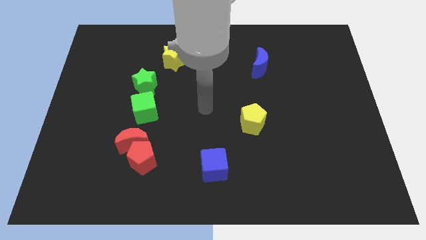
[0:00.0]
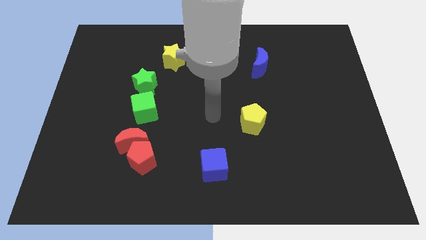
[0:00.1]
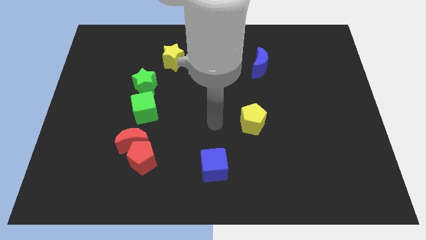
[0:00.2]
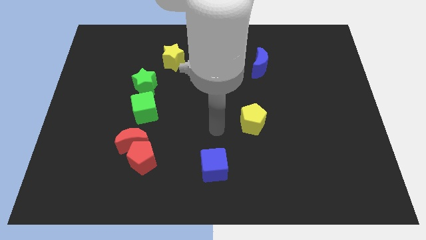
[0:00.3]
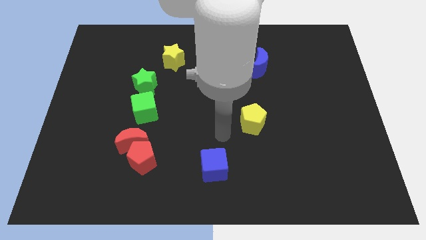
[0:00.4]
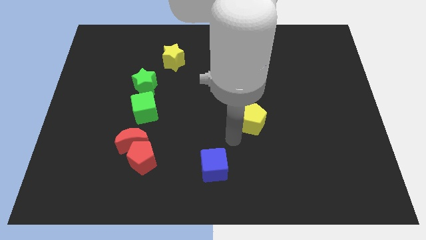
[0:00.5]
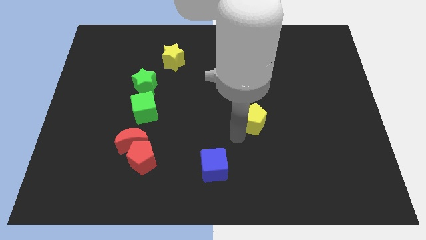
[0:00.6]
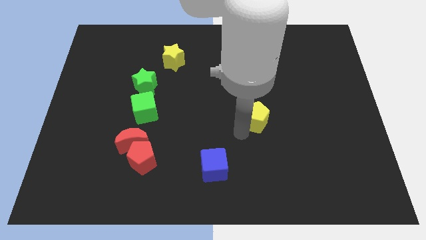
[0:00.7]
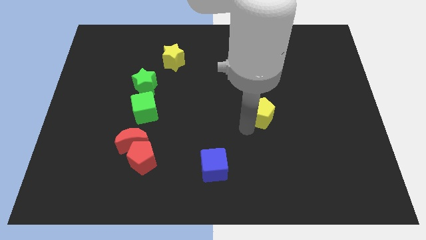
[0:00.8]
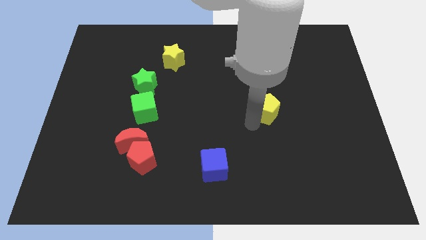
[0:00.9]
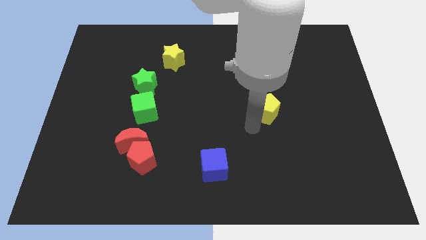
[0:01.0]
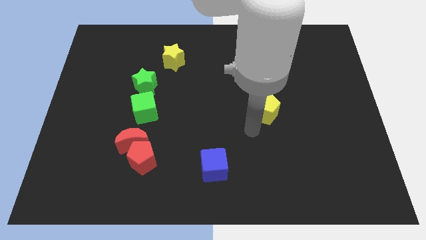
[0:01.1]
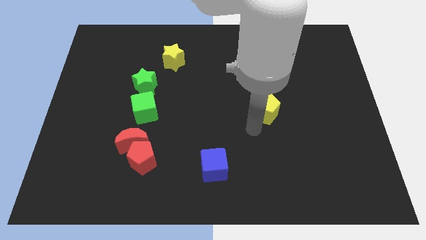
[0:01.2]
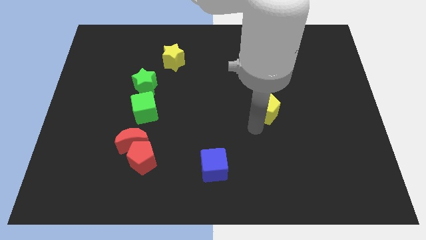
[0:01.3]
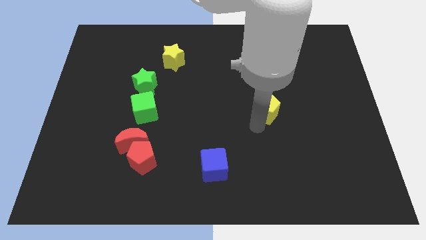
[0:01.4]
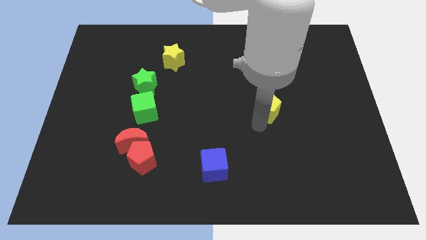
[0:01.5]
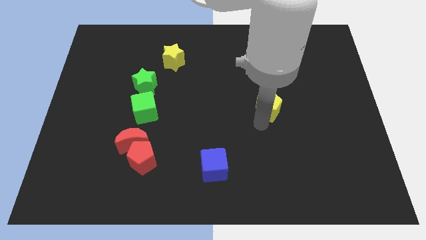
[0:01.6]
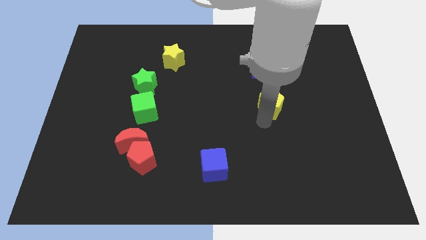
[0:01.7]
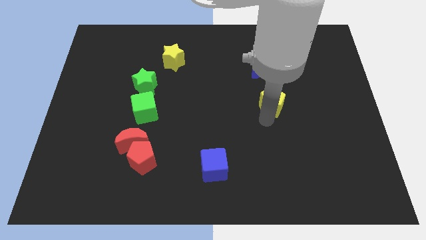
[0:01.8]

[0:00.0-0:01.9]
move the yellow pentagon up and to the right a little bit

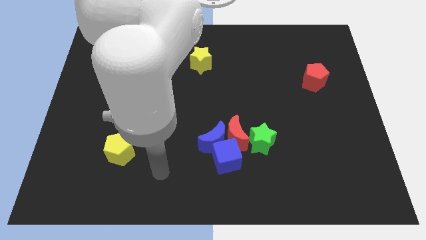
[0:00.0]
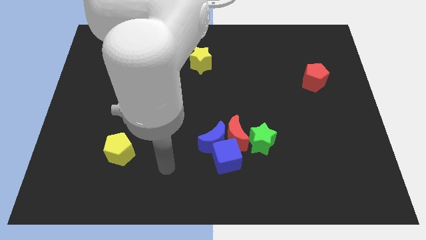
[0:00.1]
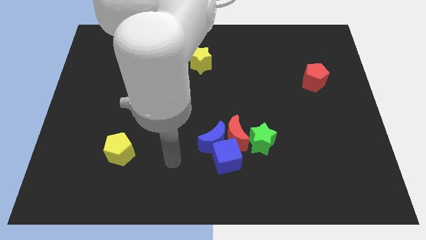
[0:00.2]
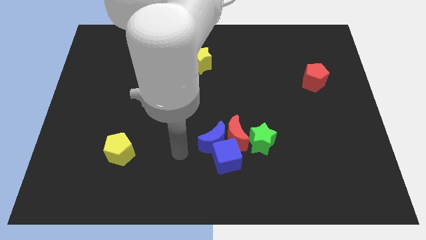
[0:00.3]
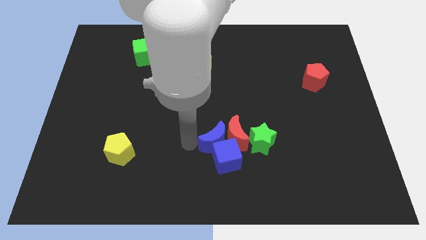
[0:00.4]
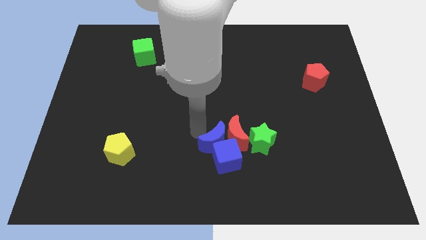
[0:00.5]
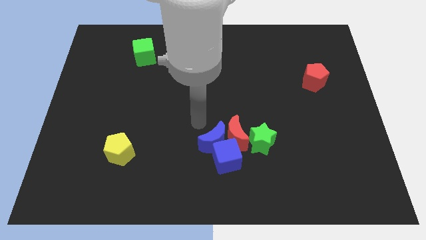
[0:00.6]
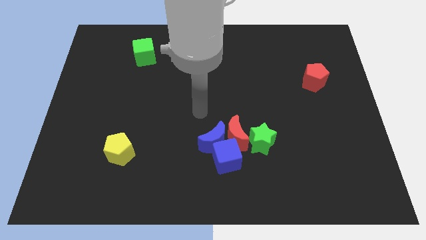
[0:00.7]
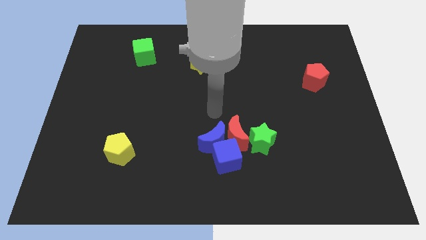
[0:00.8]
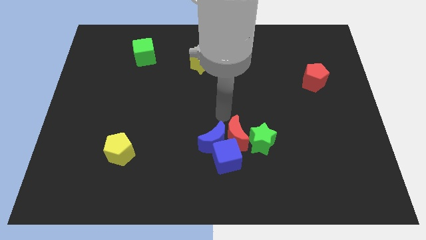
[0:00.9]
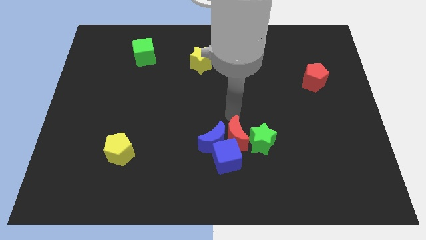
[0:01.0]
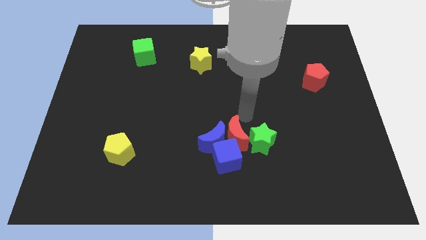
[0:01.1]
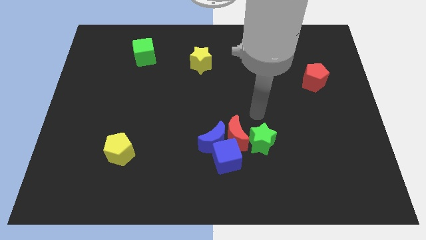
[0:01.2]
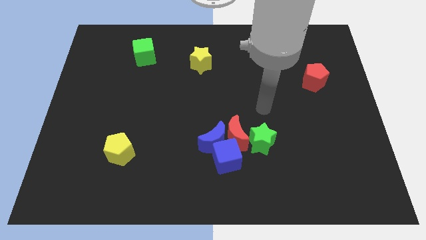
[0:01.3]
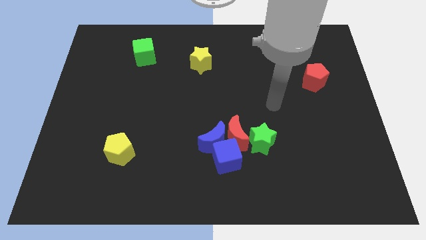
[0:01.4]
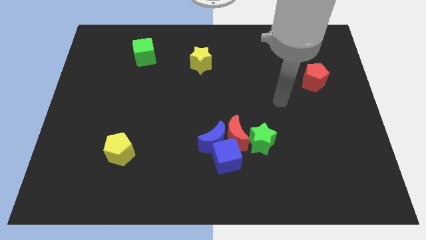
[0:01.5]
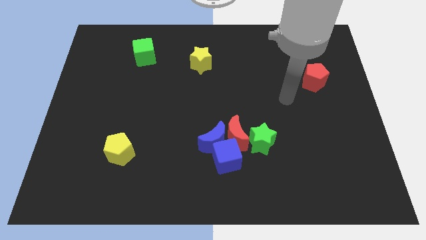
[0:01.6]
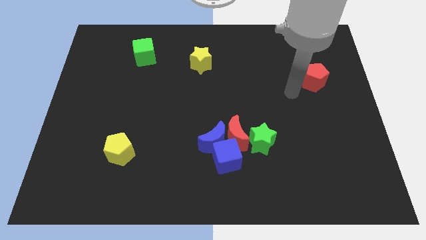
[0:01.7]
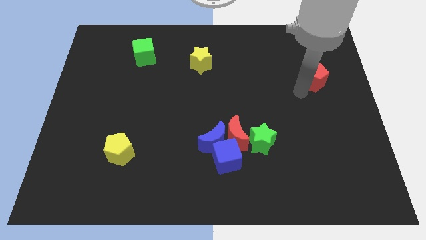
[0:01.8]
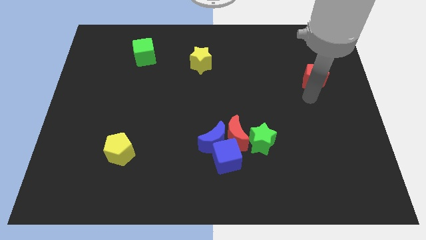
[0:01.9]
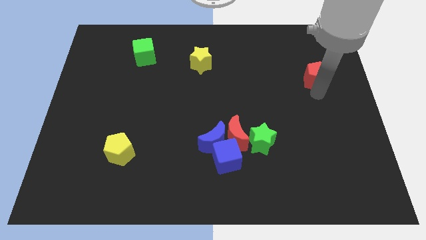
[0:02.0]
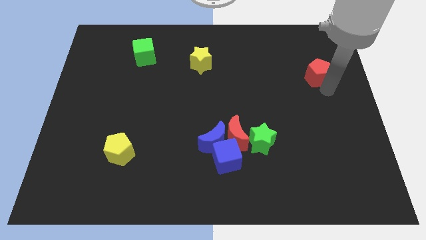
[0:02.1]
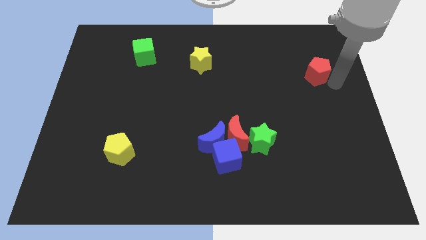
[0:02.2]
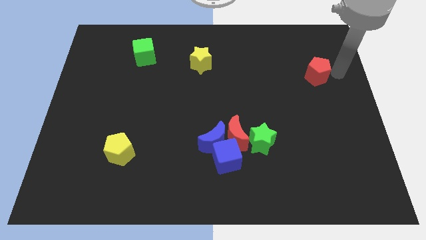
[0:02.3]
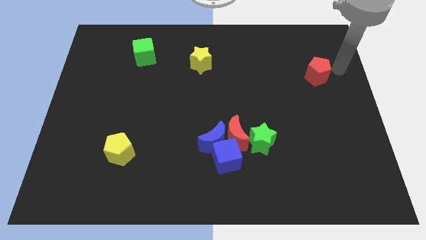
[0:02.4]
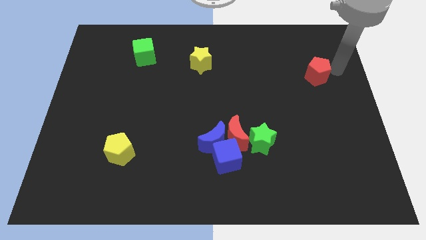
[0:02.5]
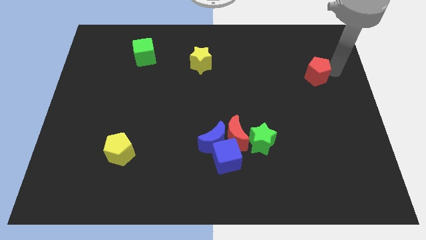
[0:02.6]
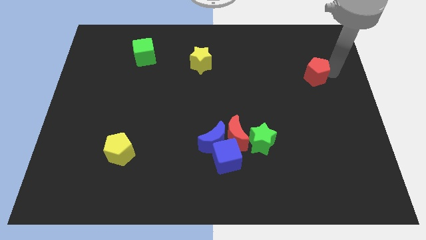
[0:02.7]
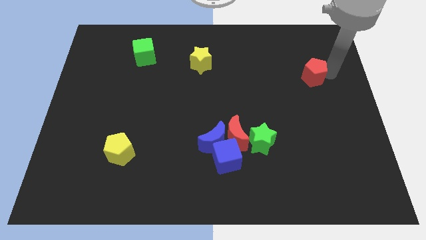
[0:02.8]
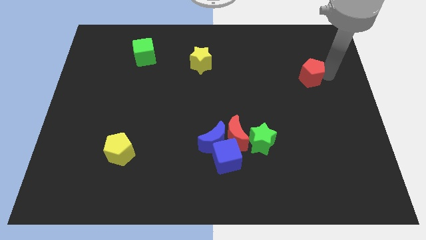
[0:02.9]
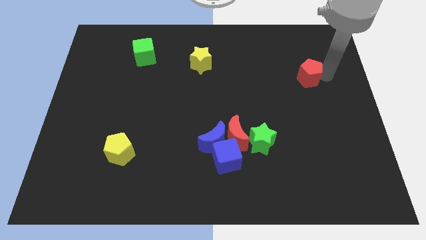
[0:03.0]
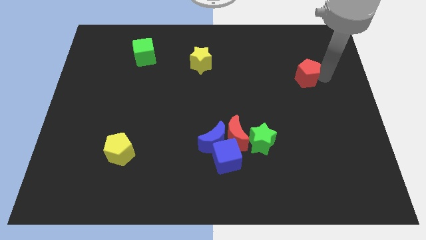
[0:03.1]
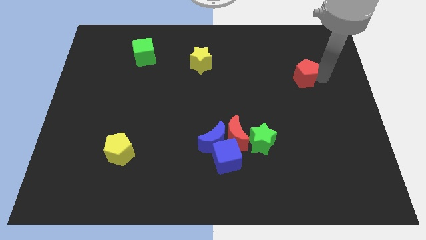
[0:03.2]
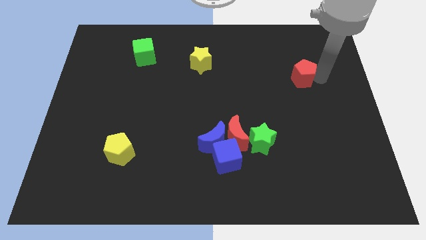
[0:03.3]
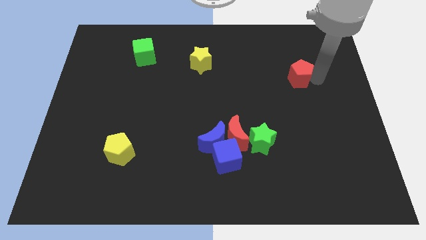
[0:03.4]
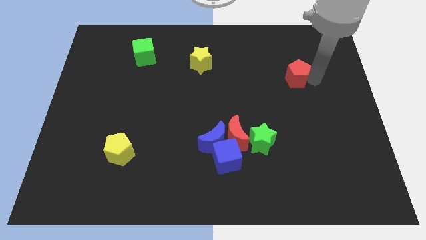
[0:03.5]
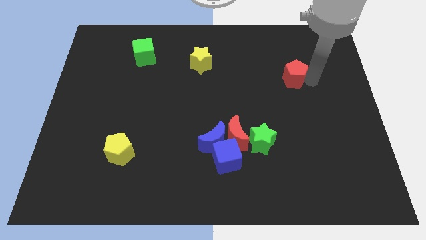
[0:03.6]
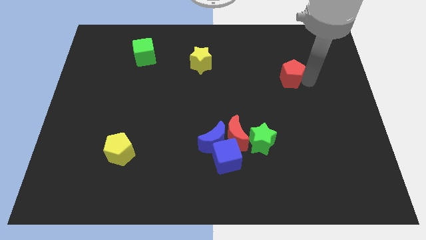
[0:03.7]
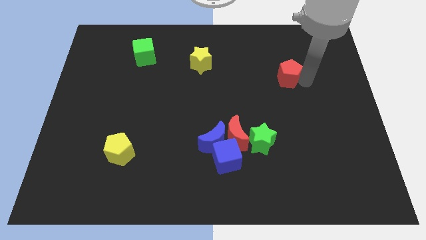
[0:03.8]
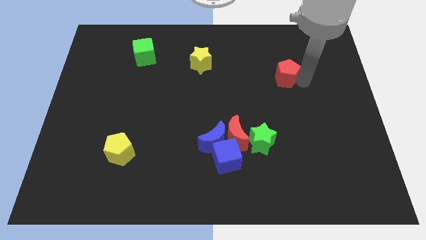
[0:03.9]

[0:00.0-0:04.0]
slightly push the red pentagon to the left

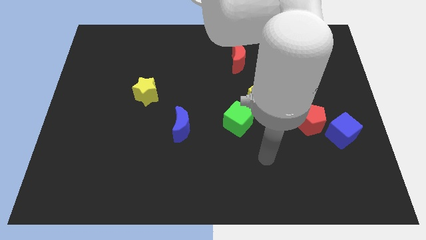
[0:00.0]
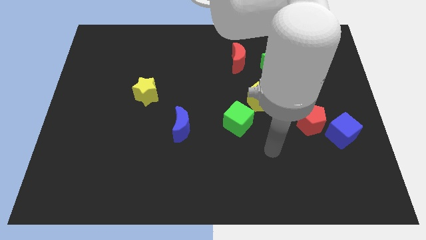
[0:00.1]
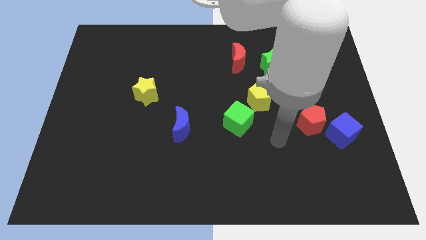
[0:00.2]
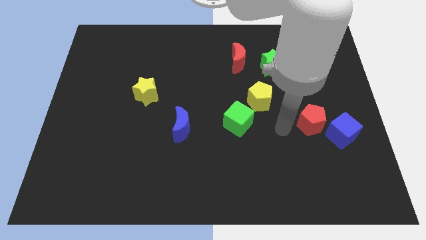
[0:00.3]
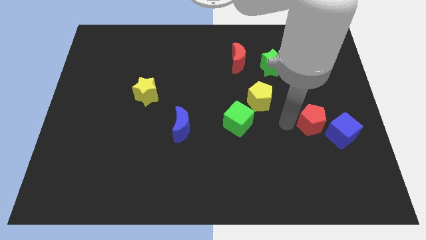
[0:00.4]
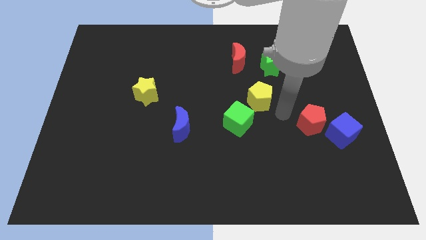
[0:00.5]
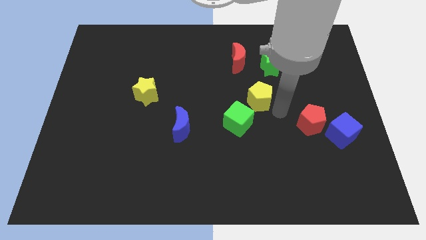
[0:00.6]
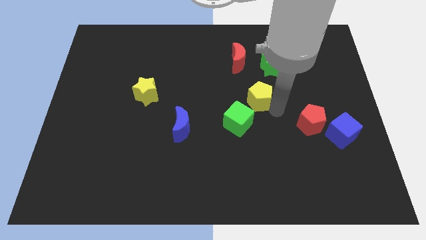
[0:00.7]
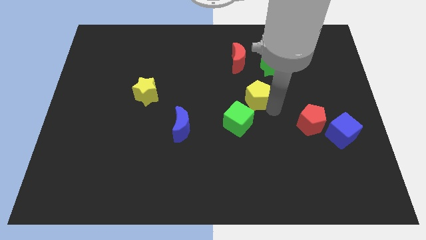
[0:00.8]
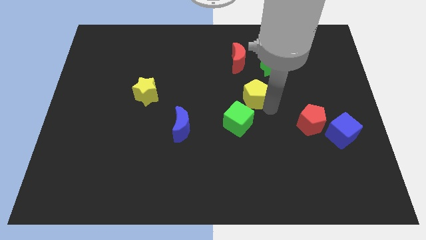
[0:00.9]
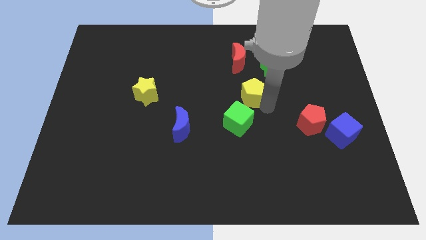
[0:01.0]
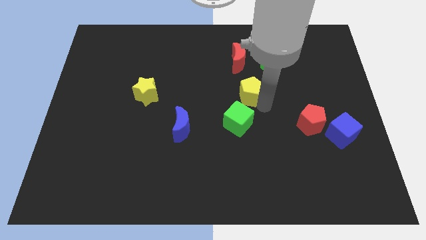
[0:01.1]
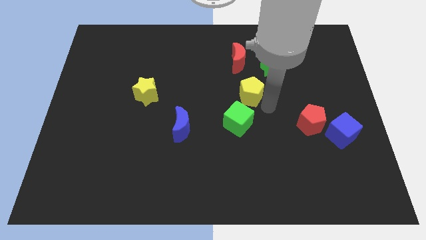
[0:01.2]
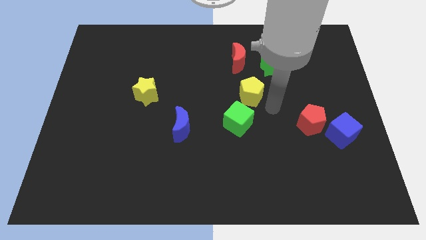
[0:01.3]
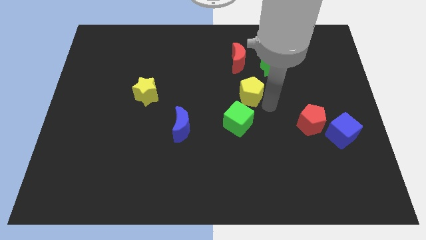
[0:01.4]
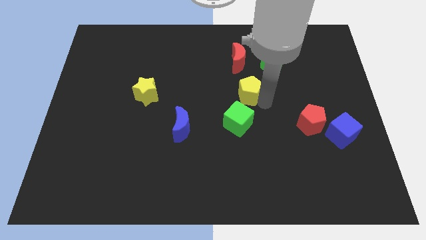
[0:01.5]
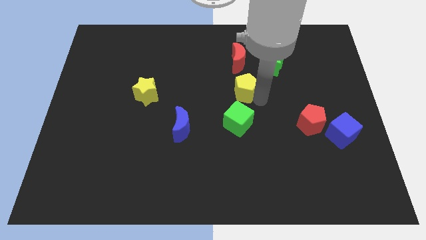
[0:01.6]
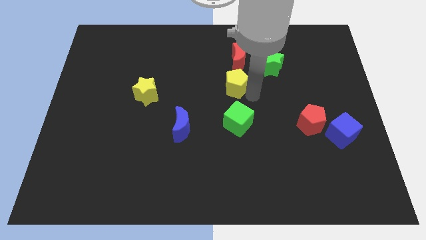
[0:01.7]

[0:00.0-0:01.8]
slightly slide the yellow pentagon upwards and to the left diagonally

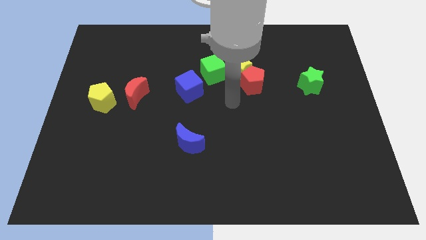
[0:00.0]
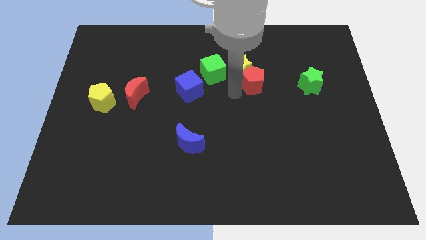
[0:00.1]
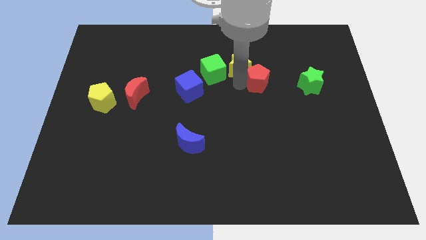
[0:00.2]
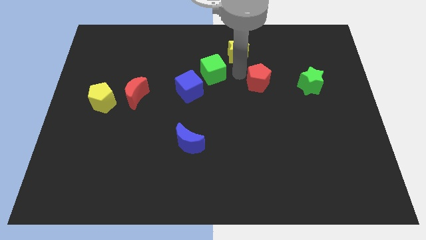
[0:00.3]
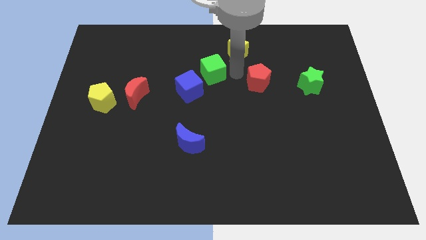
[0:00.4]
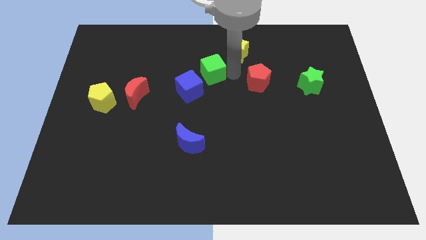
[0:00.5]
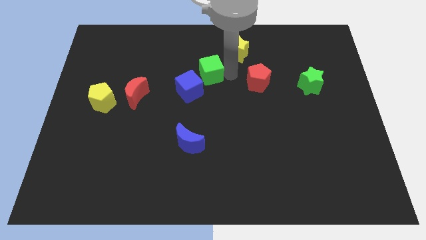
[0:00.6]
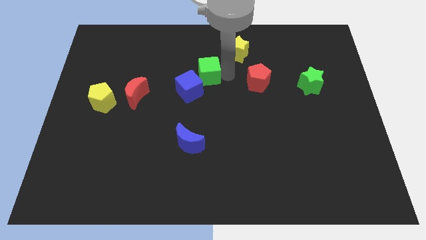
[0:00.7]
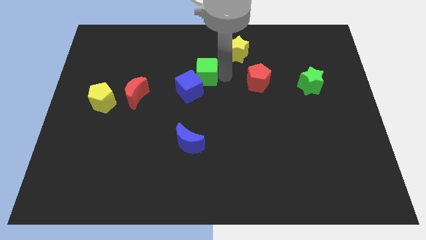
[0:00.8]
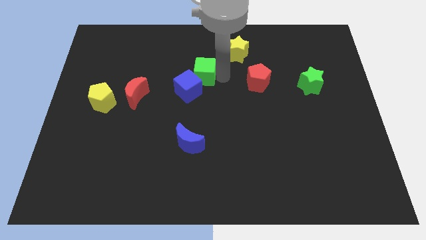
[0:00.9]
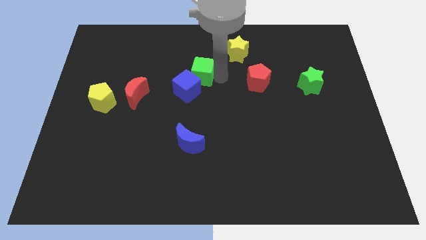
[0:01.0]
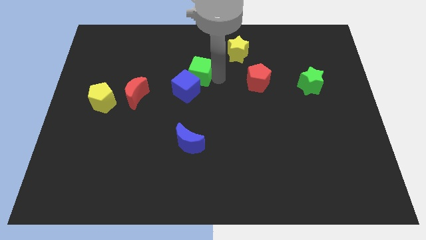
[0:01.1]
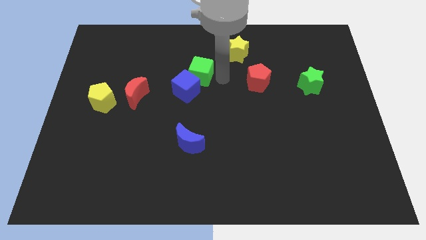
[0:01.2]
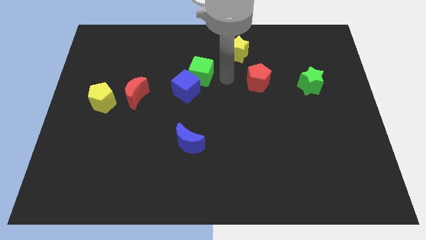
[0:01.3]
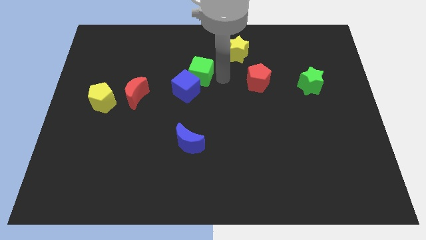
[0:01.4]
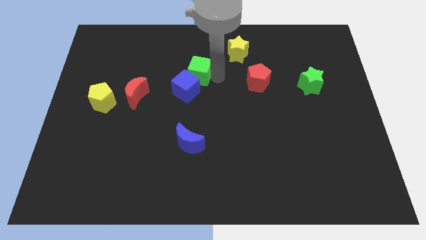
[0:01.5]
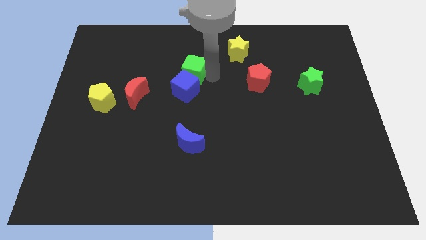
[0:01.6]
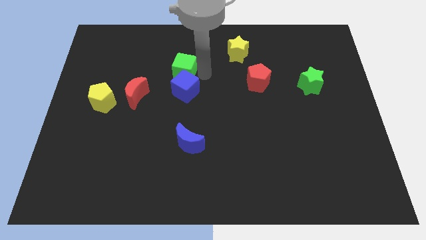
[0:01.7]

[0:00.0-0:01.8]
slide the green cube to the left a little bit
